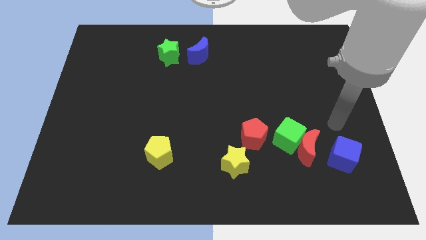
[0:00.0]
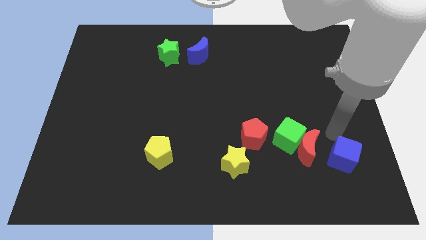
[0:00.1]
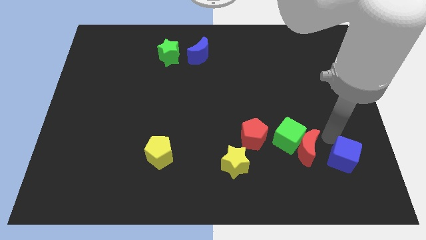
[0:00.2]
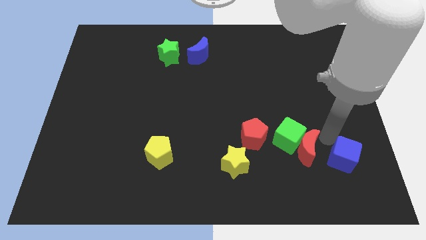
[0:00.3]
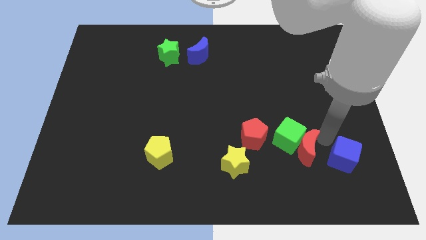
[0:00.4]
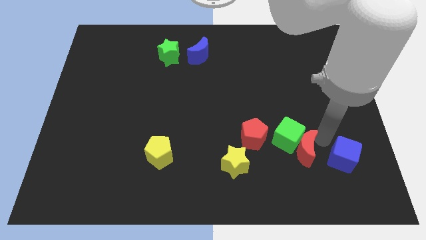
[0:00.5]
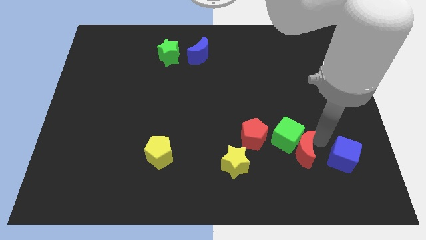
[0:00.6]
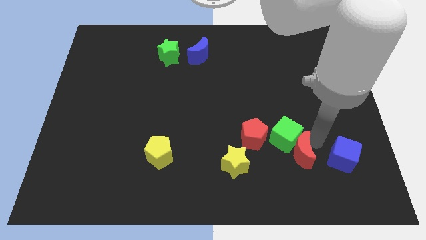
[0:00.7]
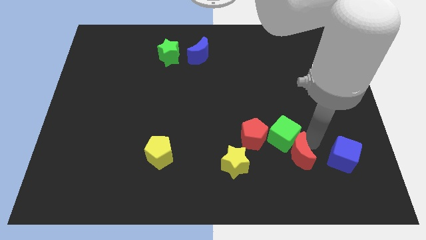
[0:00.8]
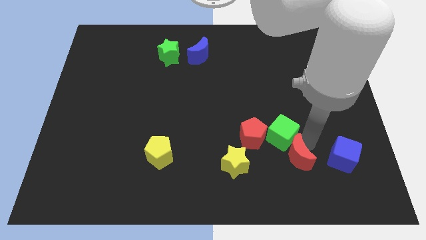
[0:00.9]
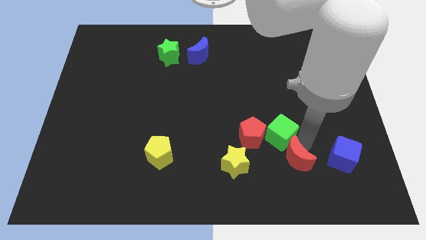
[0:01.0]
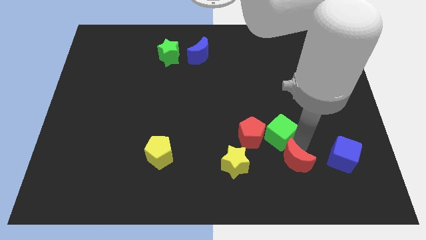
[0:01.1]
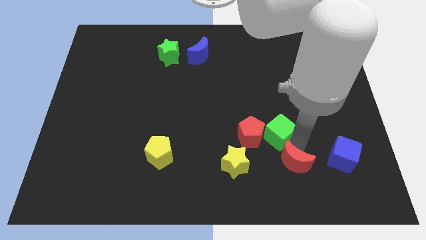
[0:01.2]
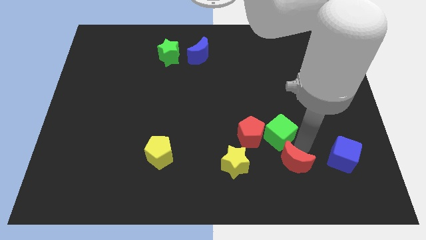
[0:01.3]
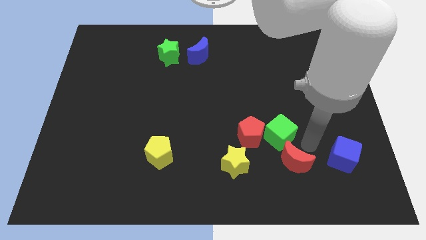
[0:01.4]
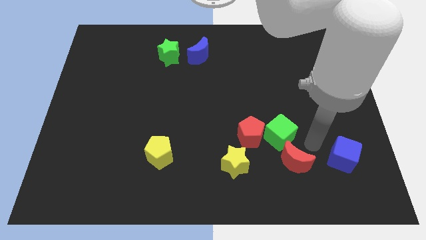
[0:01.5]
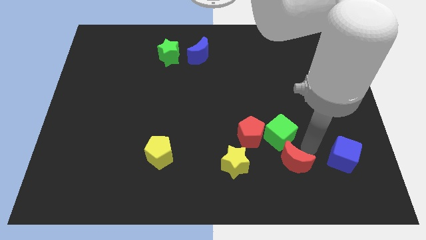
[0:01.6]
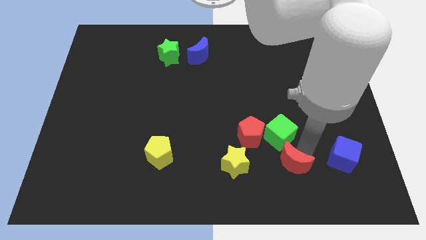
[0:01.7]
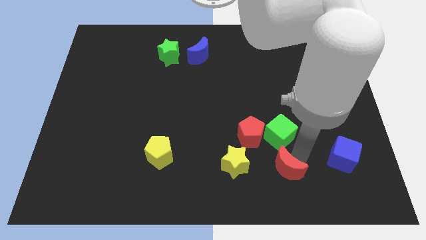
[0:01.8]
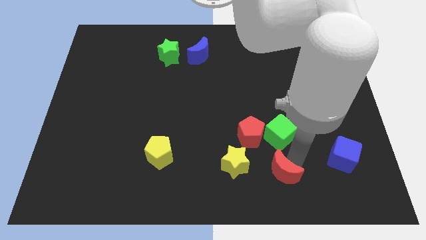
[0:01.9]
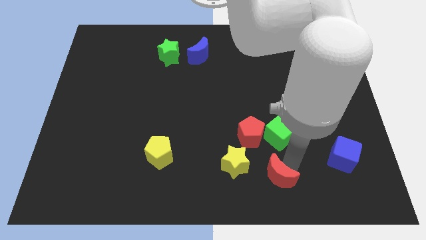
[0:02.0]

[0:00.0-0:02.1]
pull the red moon apart from the green cube and blue cube

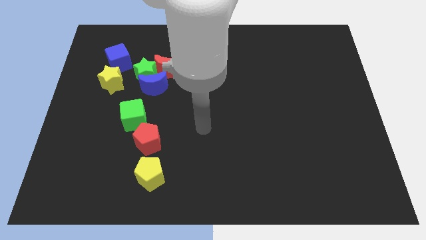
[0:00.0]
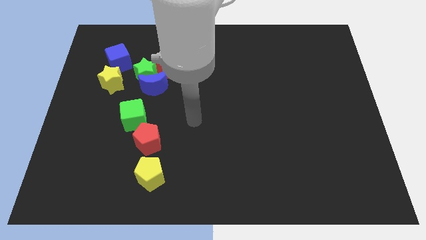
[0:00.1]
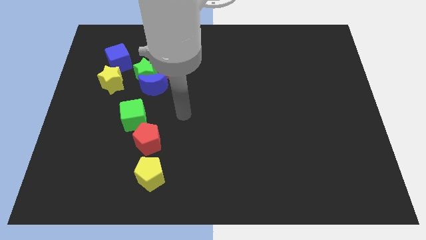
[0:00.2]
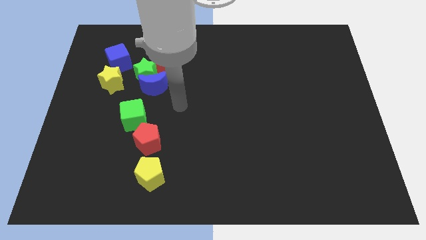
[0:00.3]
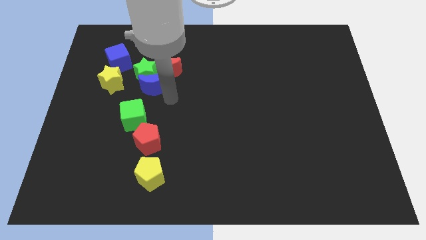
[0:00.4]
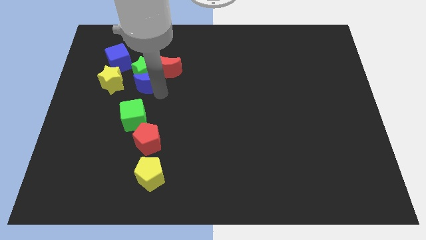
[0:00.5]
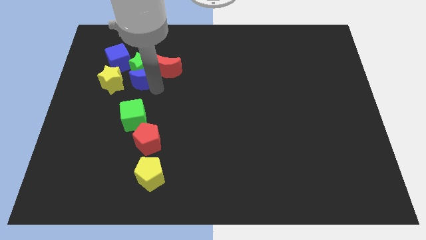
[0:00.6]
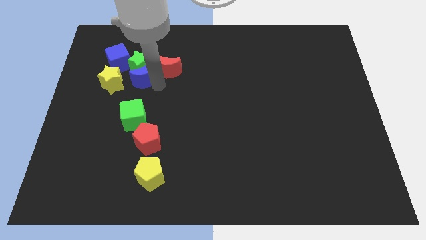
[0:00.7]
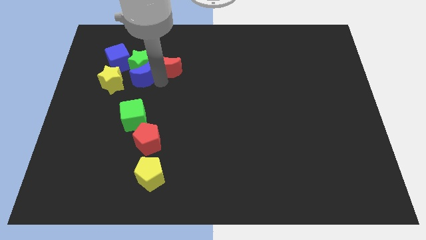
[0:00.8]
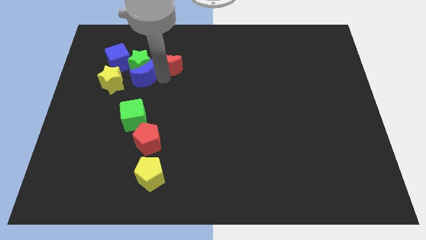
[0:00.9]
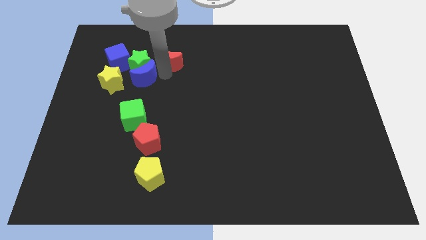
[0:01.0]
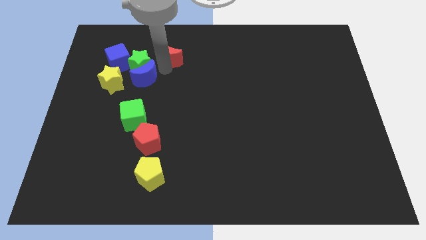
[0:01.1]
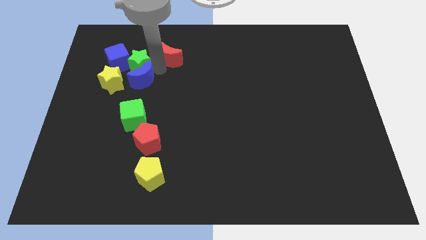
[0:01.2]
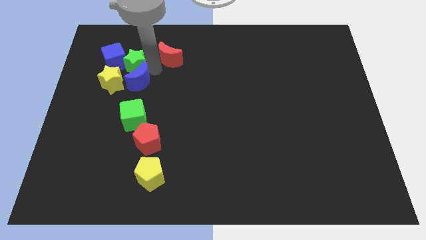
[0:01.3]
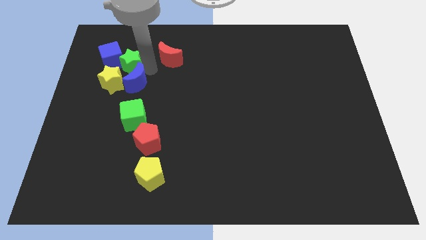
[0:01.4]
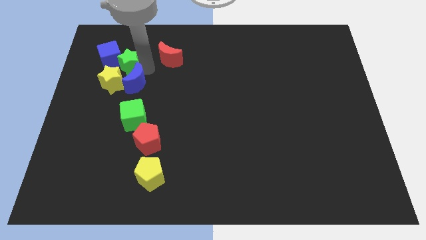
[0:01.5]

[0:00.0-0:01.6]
separate the red moon from the green star and blue moon

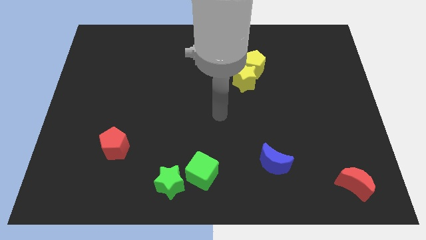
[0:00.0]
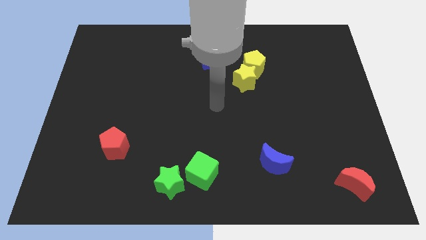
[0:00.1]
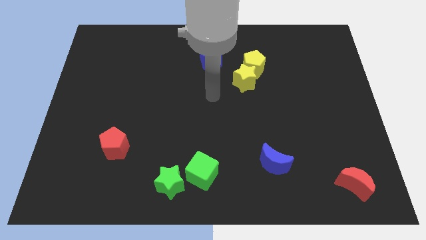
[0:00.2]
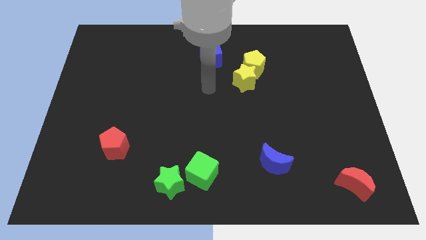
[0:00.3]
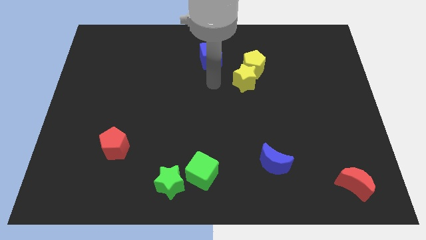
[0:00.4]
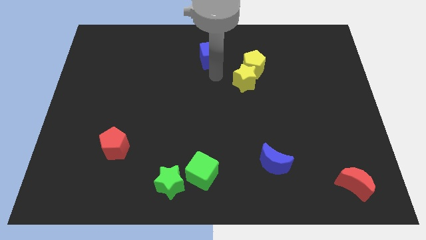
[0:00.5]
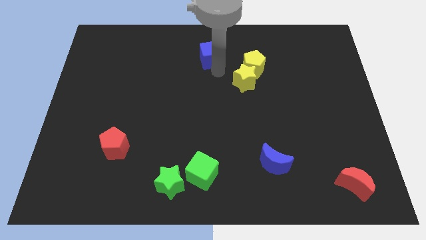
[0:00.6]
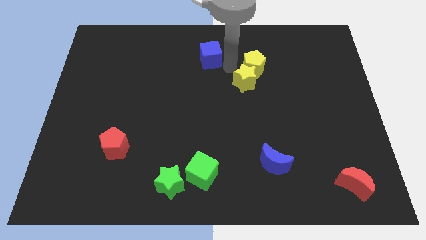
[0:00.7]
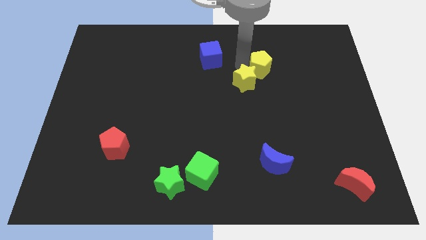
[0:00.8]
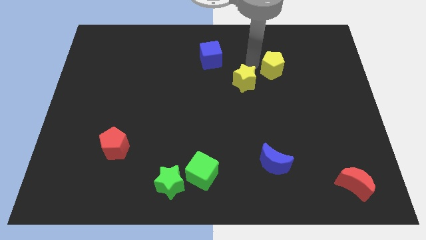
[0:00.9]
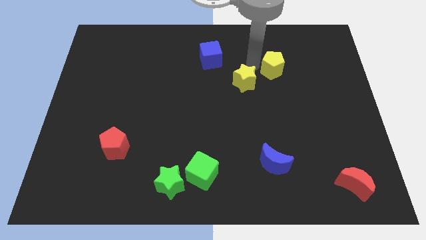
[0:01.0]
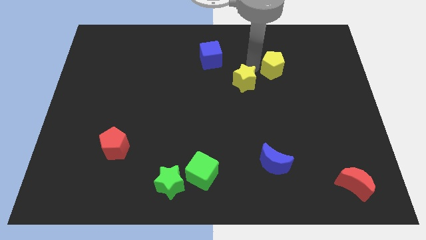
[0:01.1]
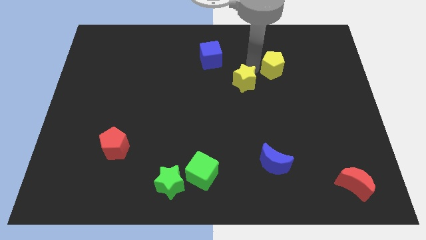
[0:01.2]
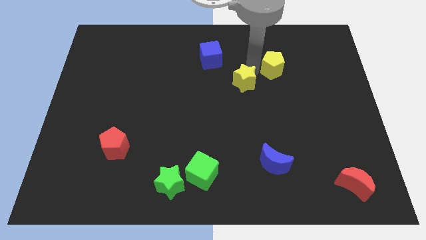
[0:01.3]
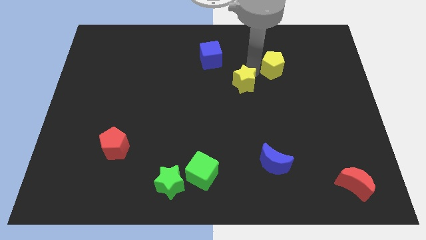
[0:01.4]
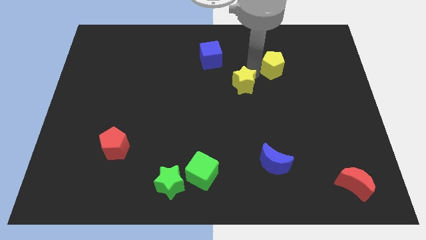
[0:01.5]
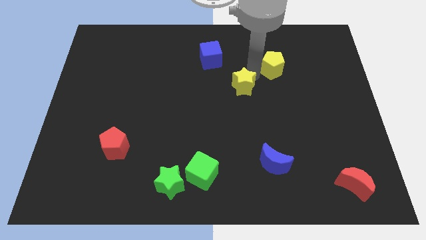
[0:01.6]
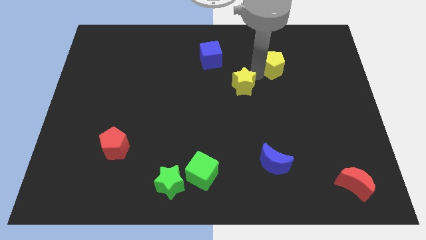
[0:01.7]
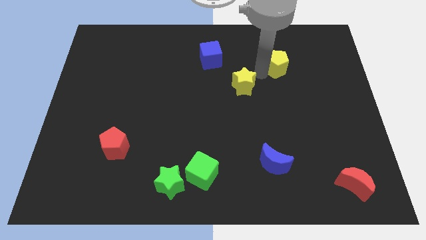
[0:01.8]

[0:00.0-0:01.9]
move the yellow star away from the yellow pentagon

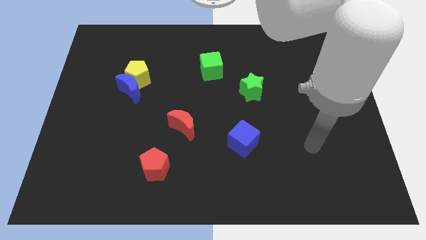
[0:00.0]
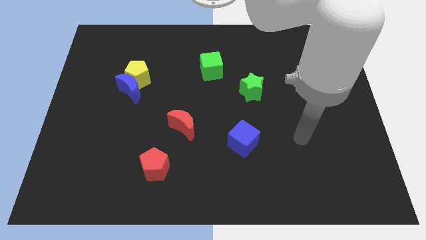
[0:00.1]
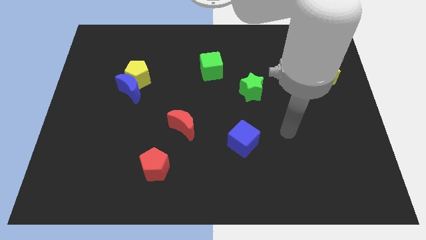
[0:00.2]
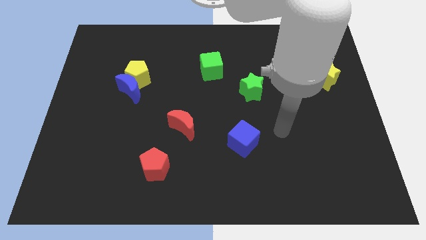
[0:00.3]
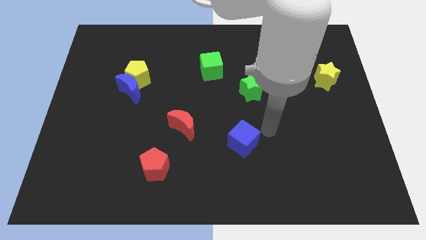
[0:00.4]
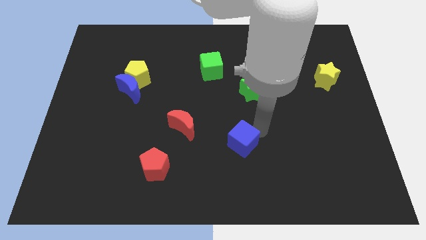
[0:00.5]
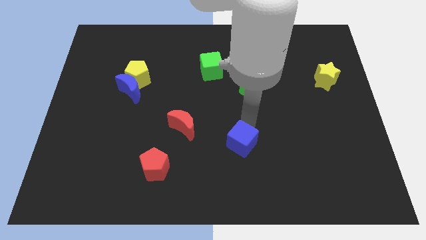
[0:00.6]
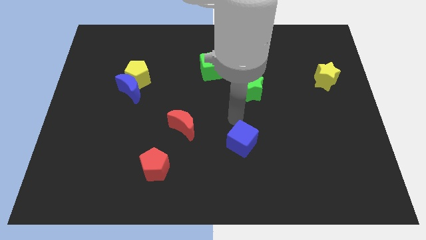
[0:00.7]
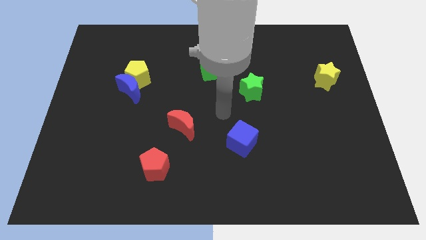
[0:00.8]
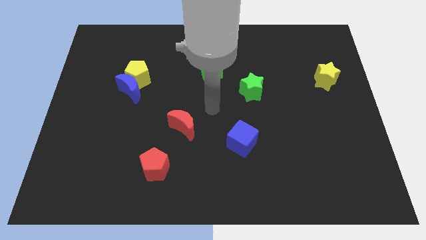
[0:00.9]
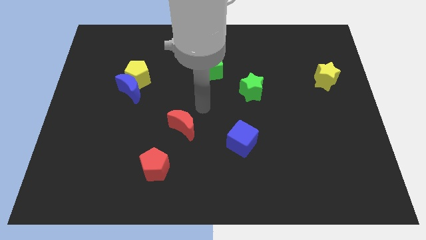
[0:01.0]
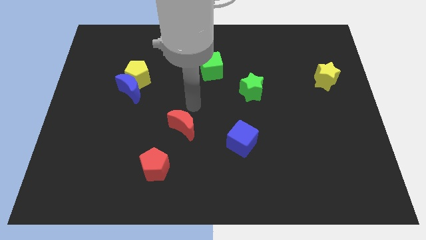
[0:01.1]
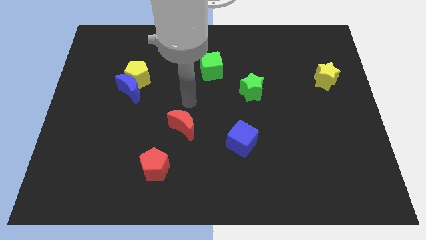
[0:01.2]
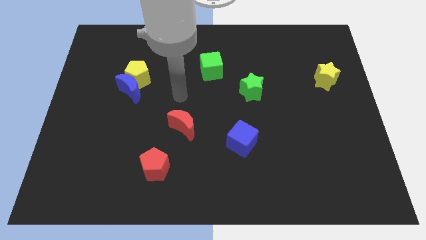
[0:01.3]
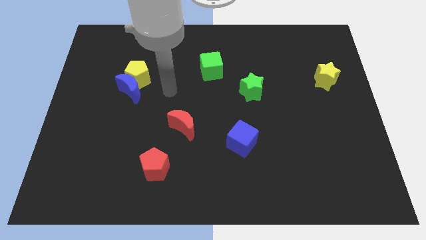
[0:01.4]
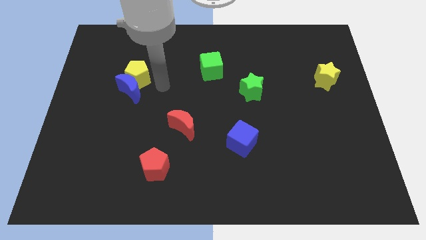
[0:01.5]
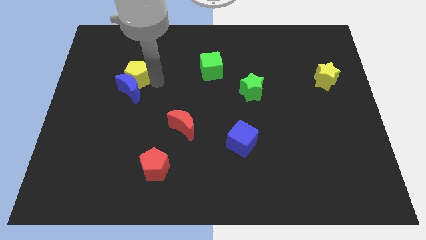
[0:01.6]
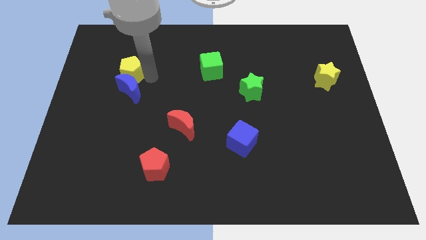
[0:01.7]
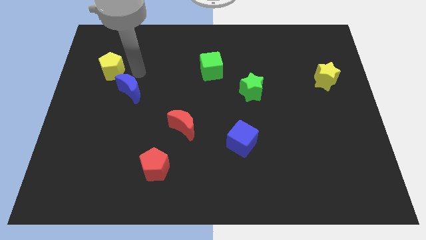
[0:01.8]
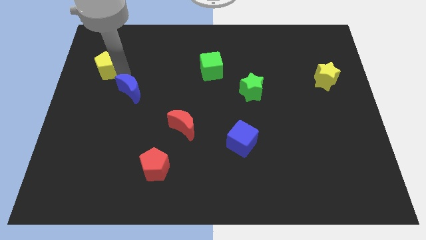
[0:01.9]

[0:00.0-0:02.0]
separate the blue moon from the yellow pentagon

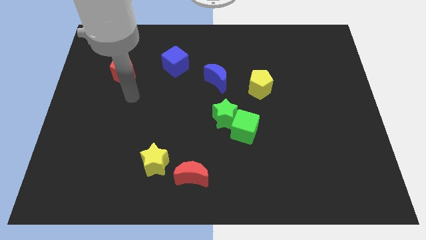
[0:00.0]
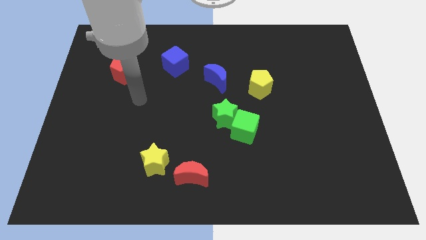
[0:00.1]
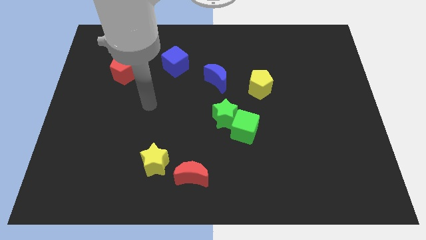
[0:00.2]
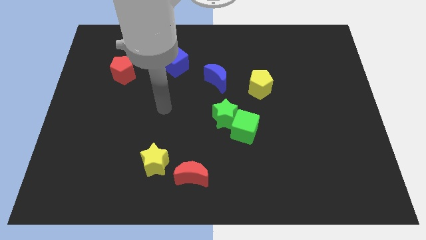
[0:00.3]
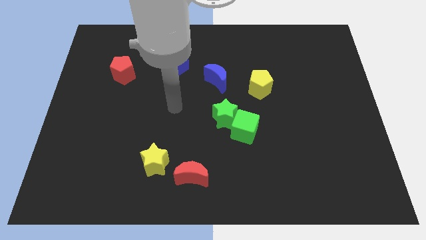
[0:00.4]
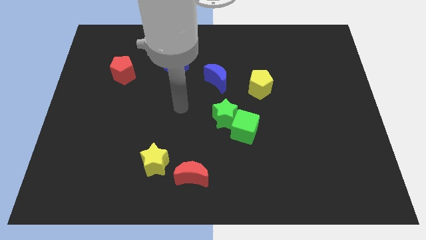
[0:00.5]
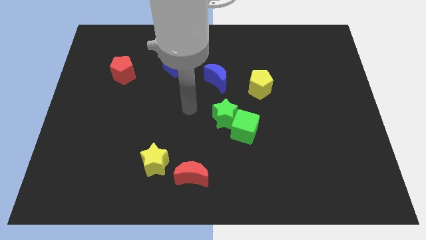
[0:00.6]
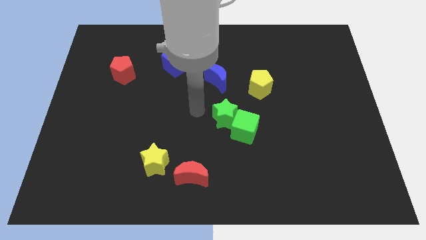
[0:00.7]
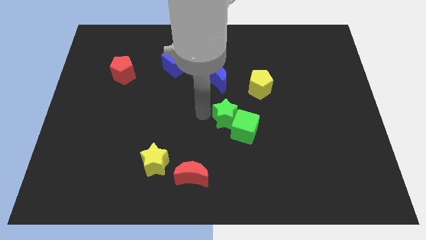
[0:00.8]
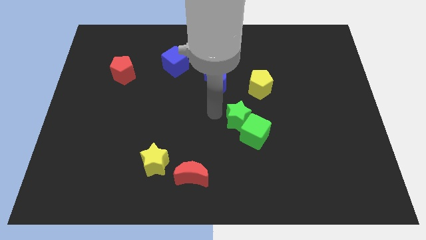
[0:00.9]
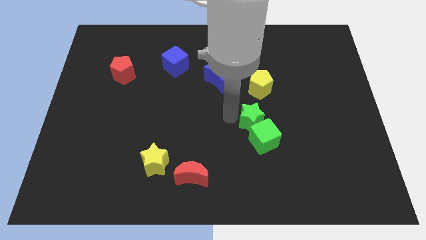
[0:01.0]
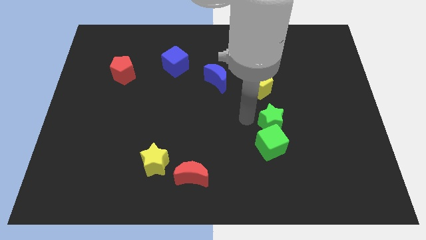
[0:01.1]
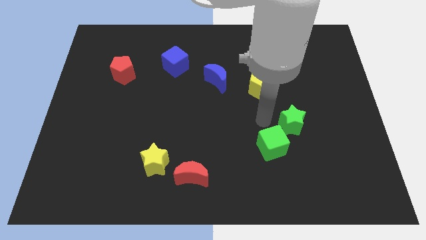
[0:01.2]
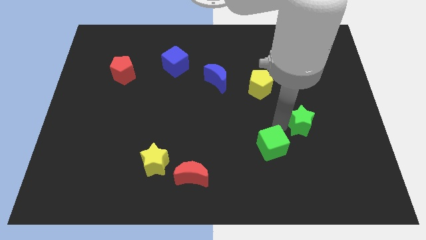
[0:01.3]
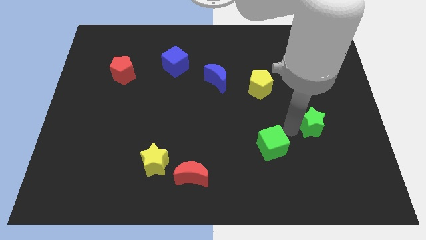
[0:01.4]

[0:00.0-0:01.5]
separate the green cube from the green star
